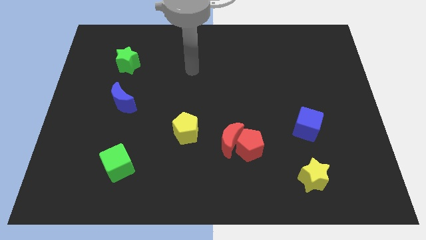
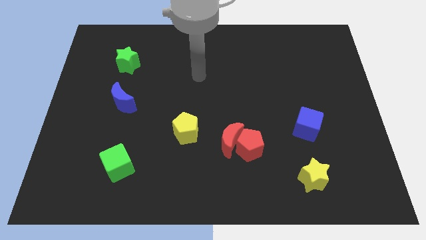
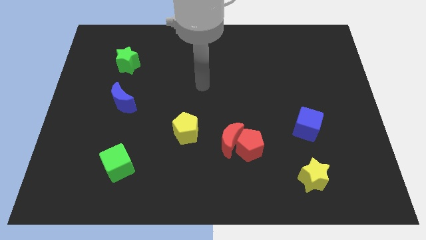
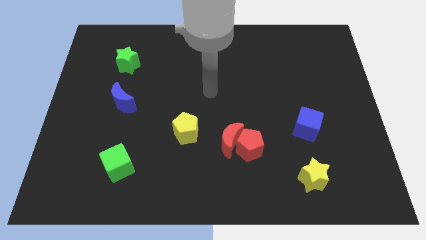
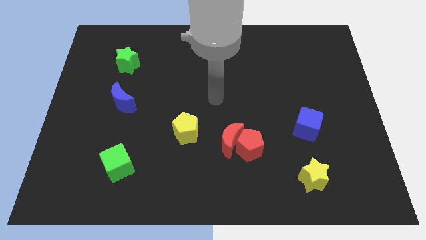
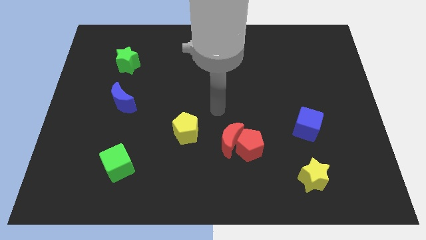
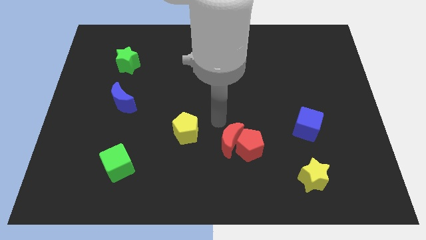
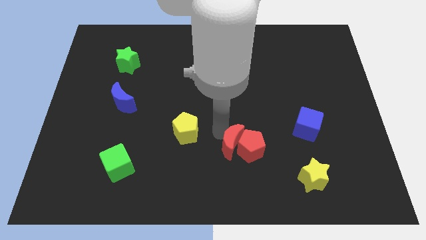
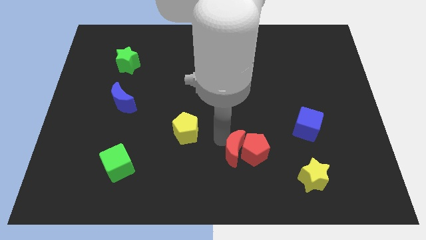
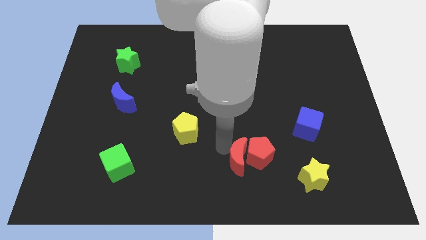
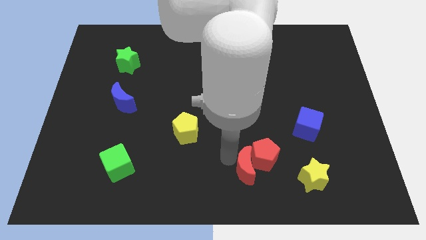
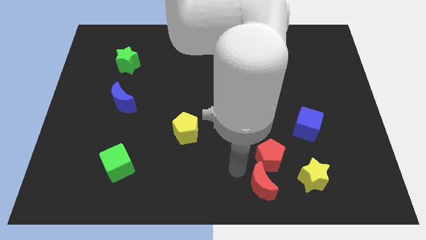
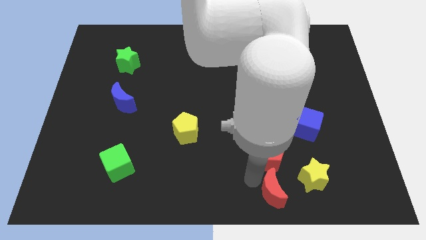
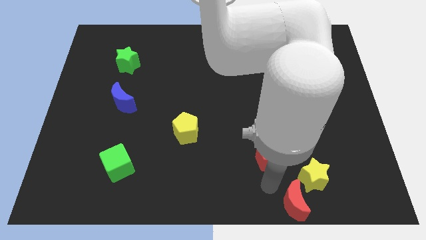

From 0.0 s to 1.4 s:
separate the red pentagon from the red moon

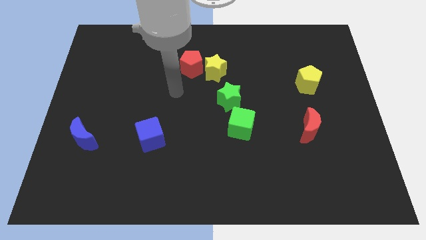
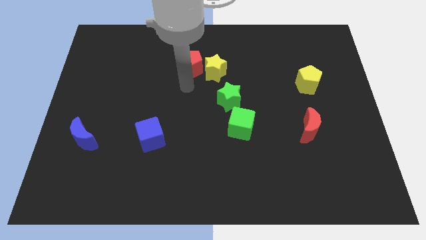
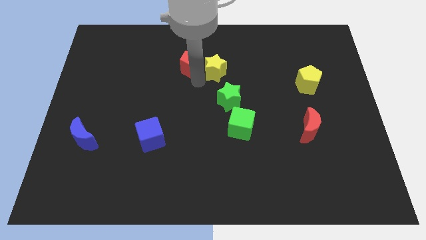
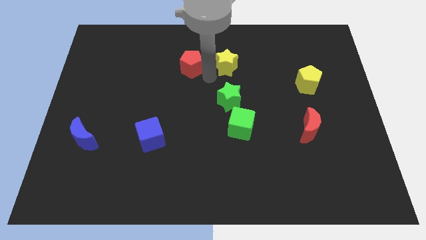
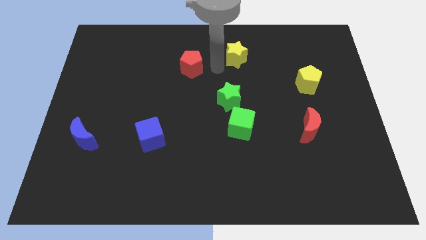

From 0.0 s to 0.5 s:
pull the red pentagon apart from the yellow star

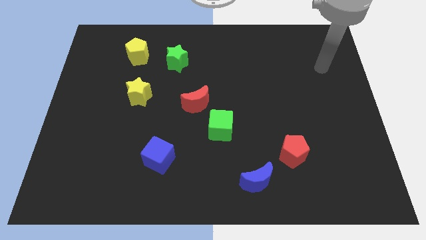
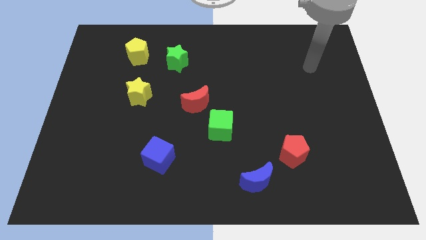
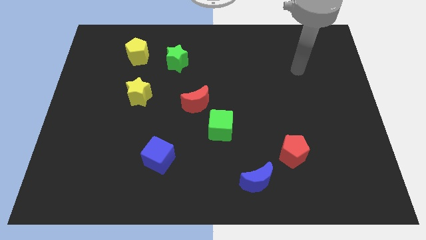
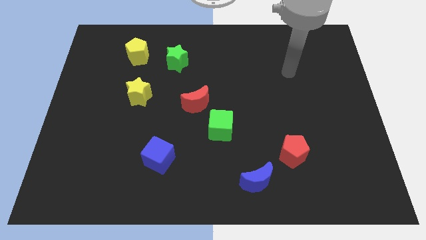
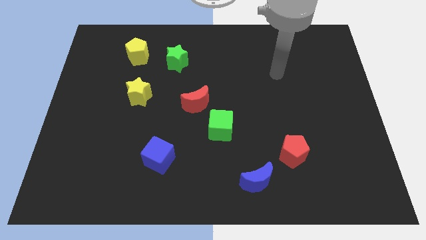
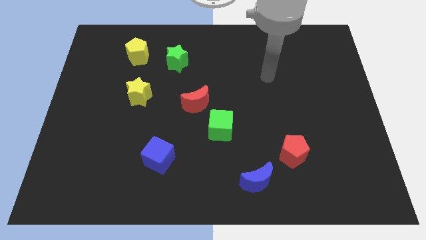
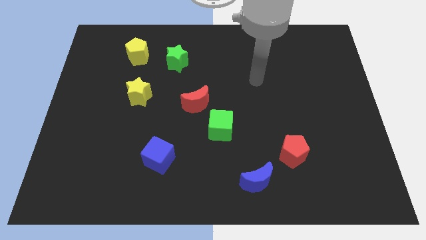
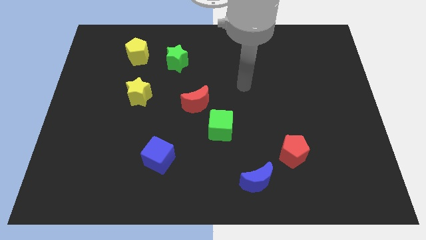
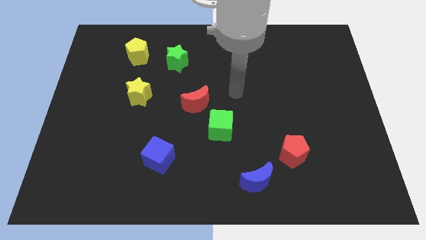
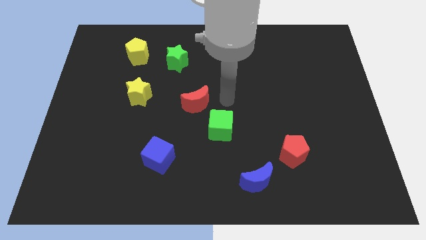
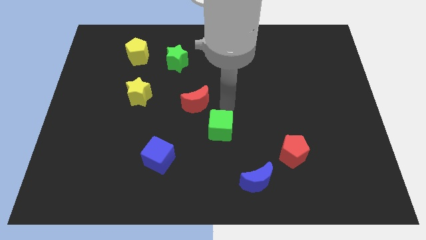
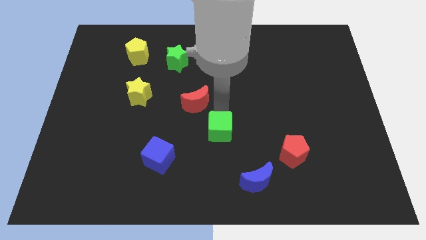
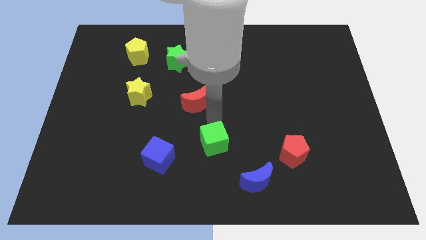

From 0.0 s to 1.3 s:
move the red moon away from the green cube

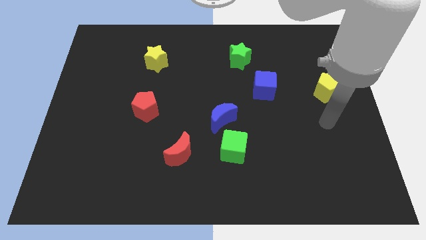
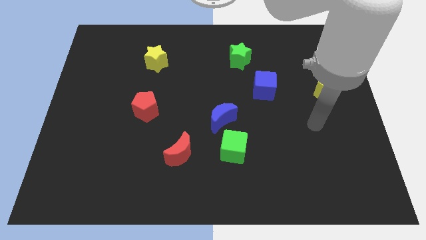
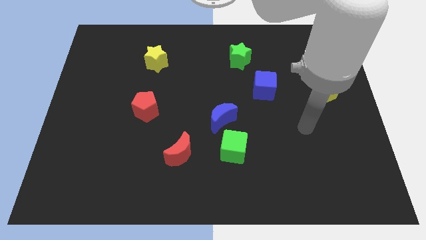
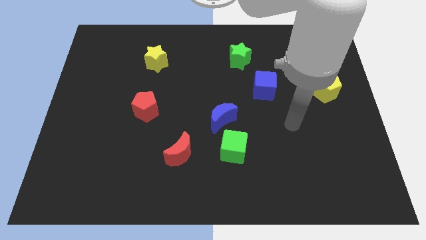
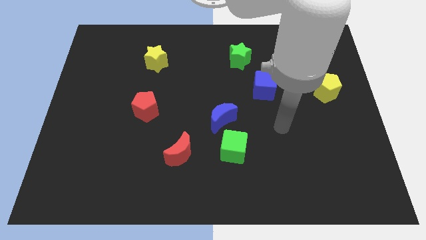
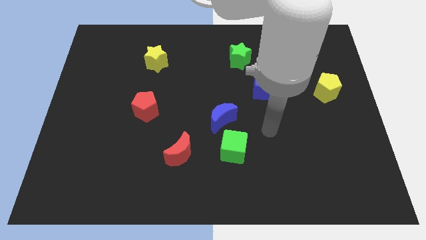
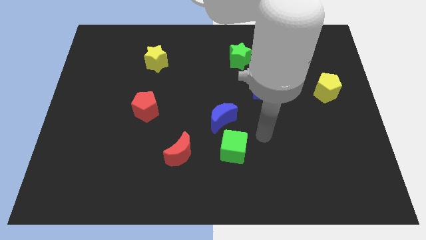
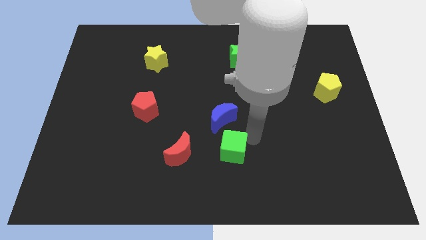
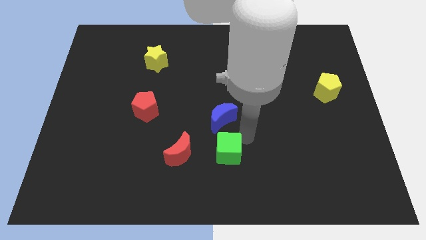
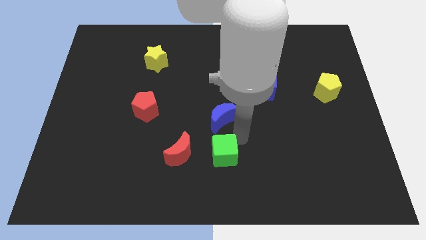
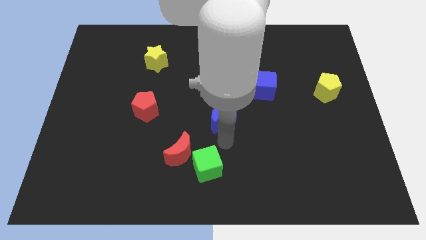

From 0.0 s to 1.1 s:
move the blue moon away from the green cube

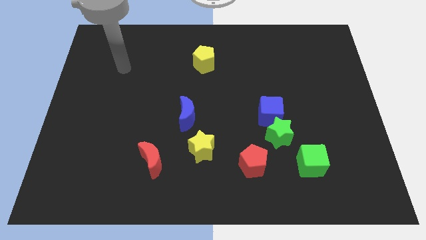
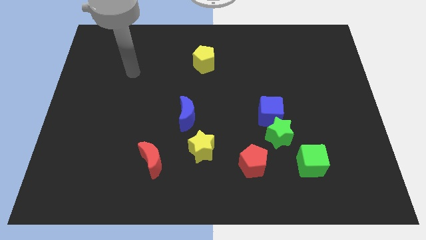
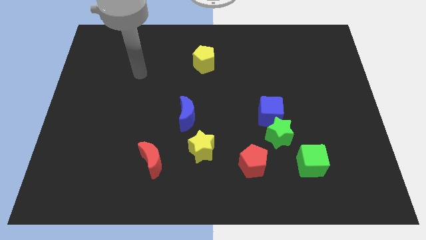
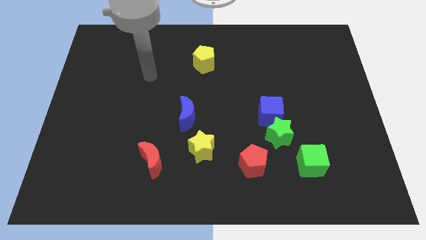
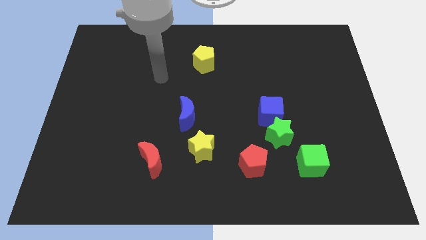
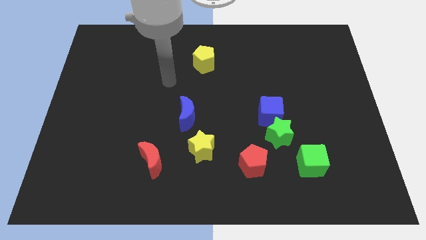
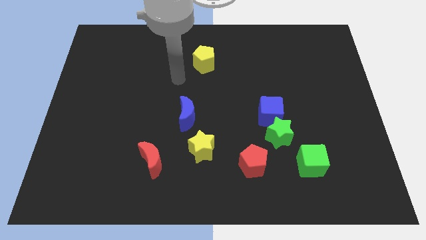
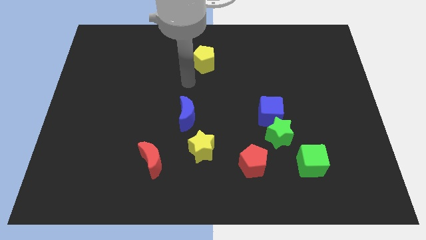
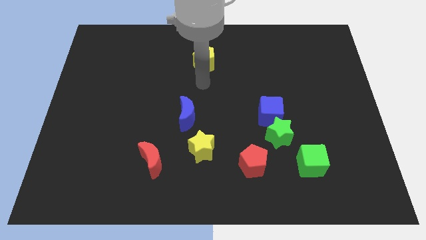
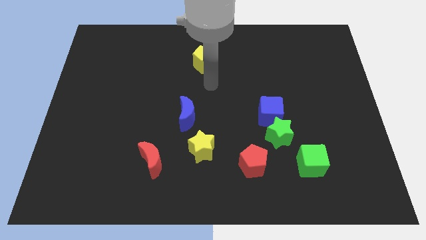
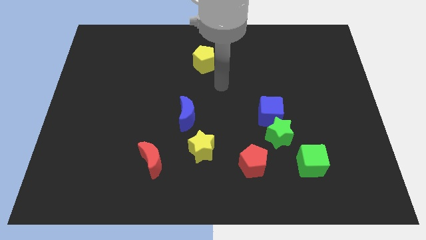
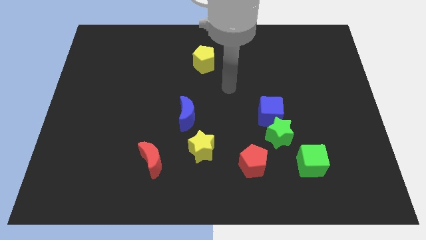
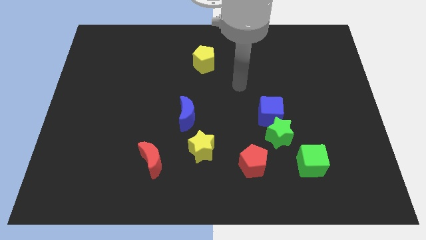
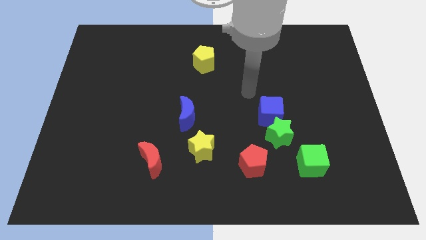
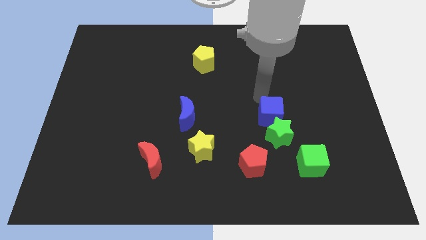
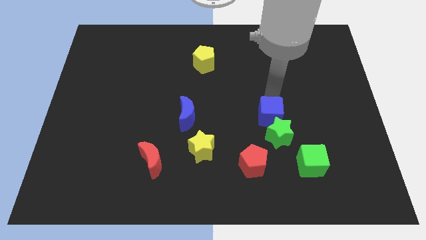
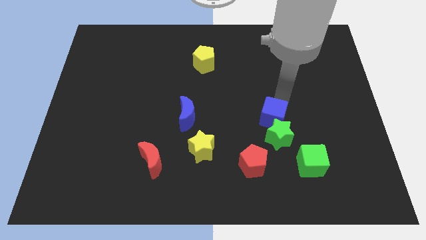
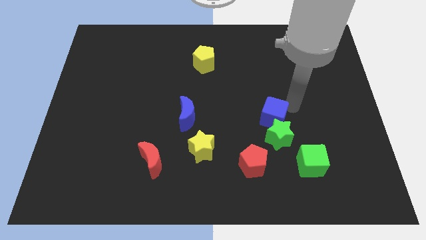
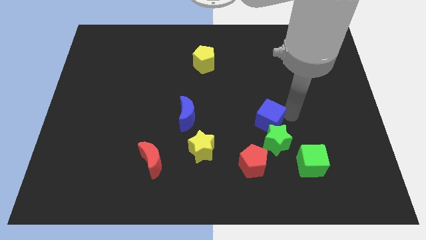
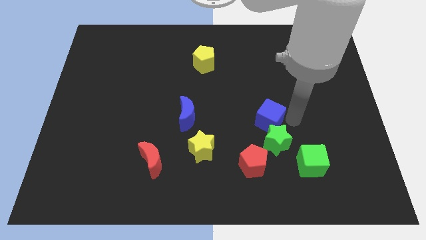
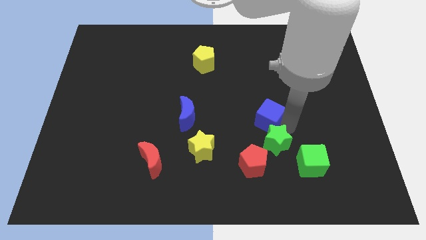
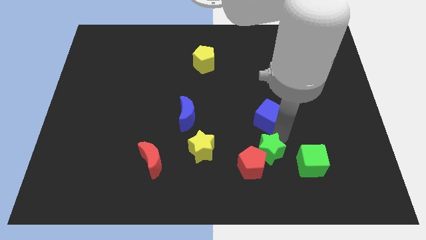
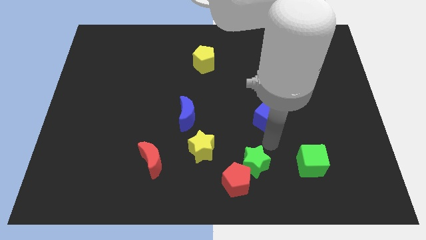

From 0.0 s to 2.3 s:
move the blue cube away from the green star

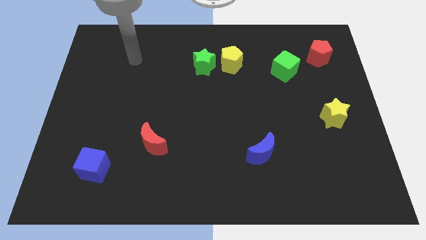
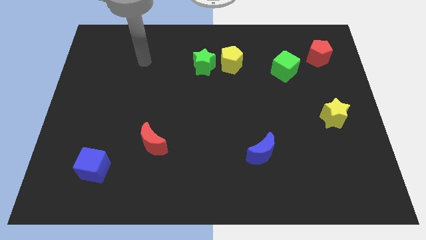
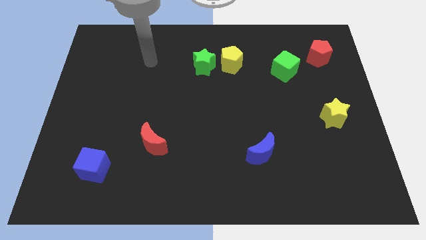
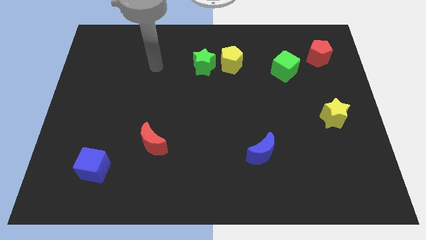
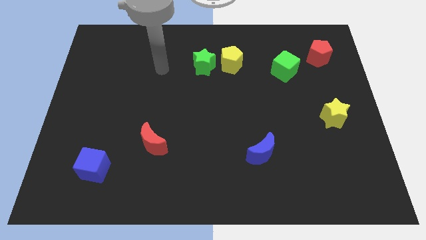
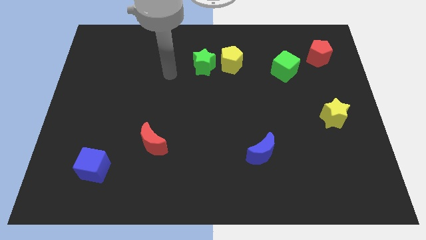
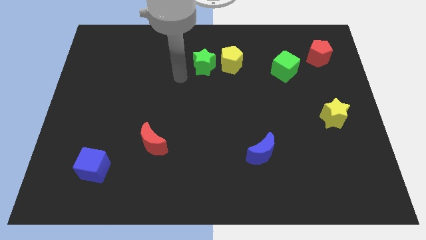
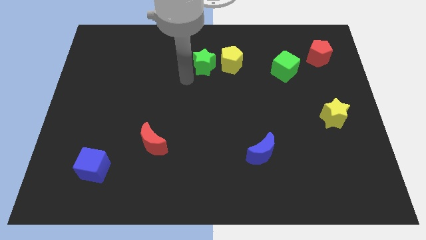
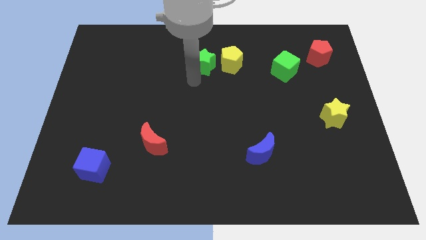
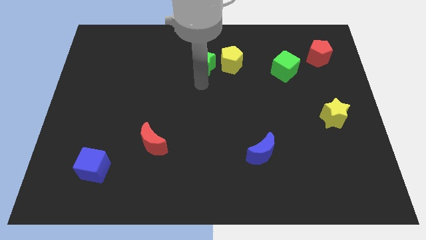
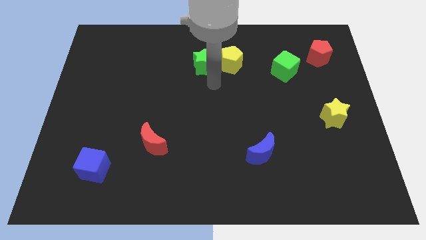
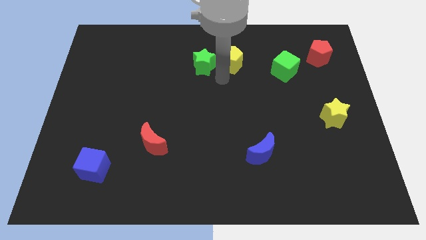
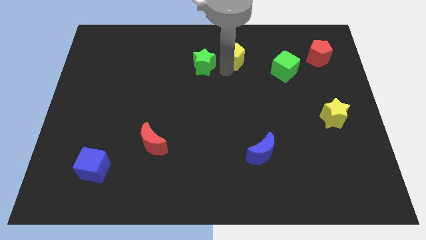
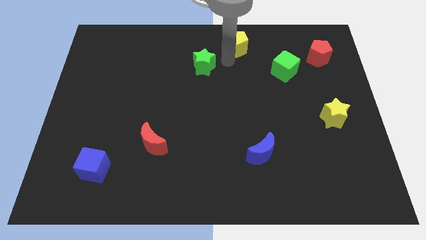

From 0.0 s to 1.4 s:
pull the green star apart from the yellow pentagon

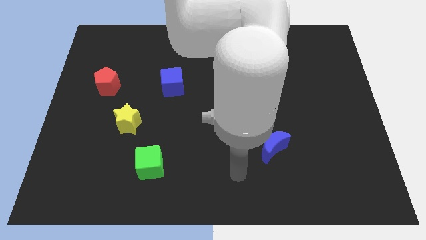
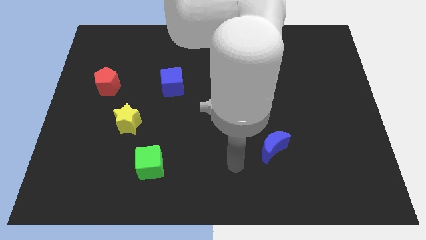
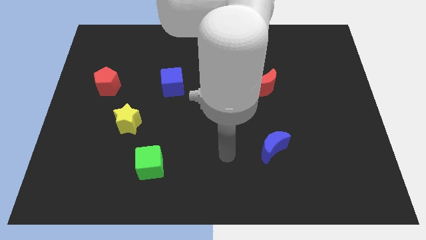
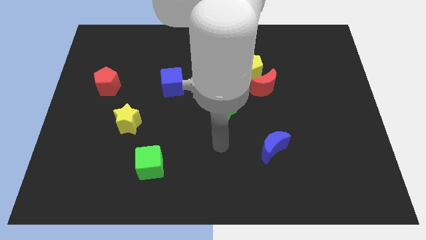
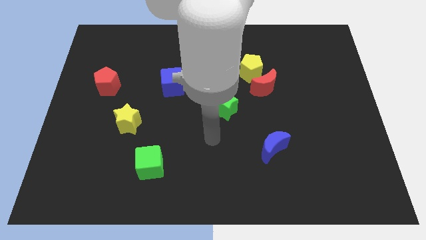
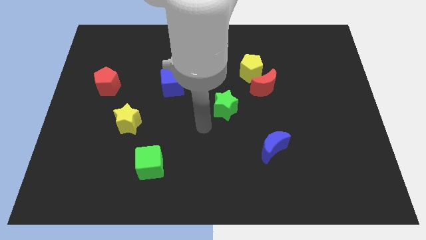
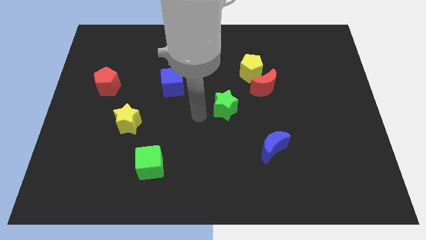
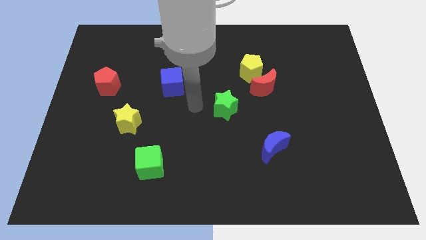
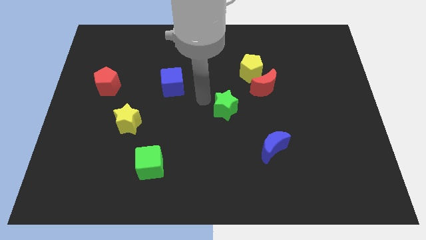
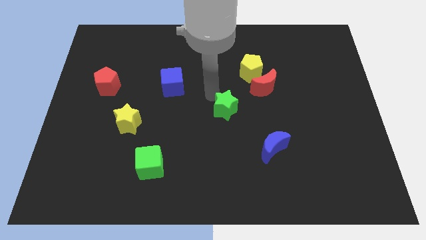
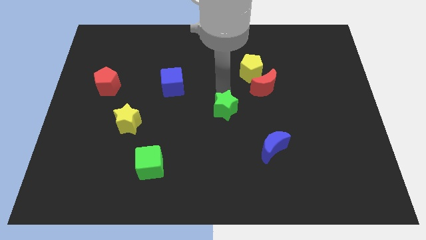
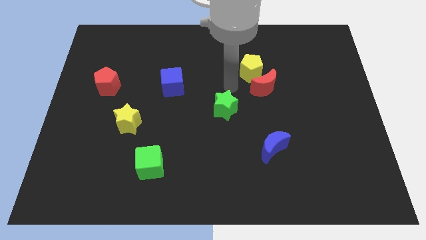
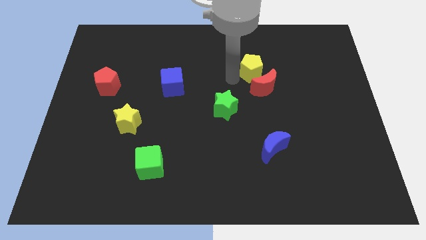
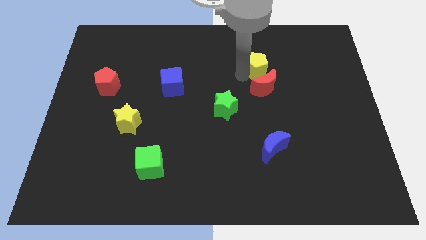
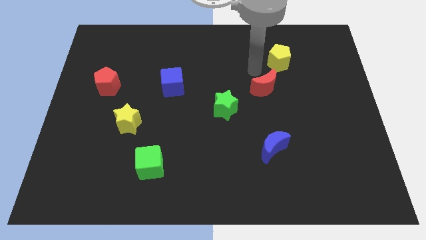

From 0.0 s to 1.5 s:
separate the red moon from the yellow pentagon
